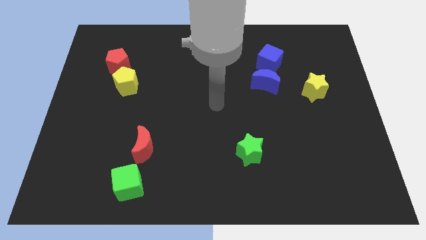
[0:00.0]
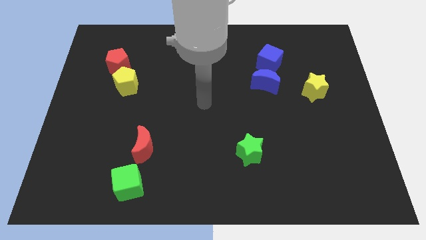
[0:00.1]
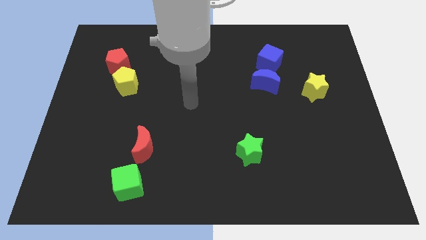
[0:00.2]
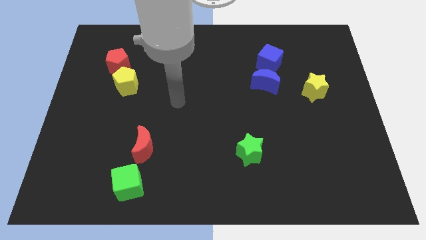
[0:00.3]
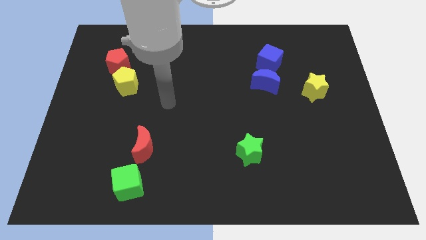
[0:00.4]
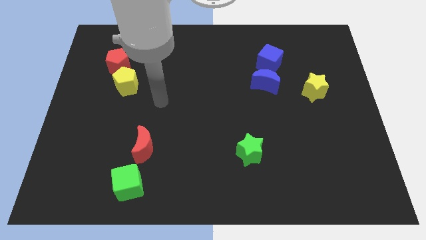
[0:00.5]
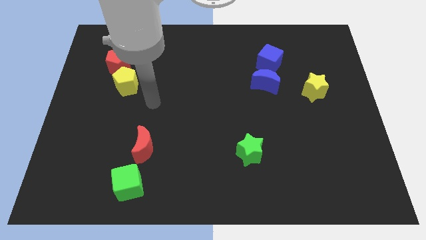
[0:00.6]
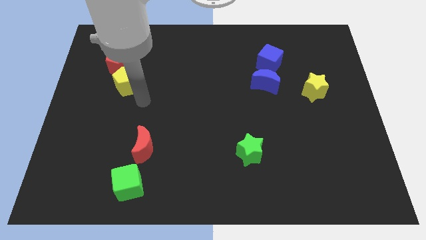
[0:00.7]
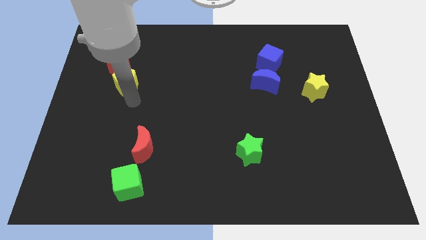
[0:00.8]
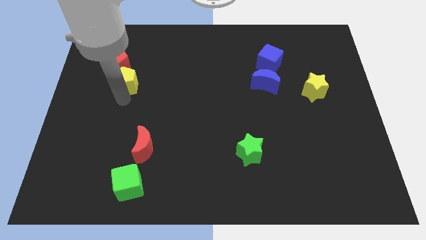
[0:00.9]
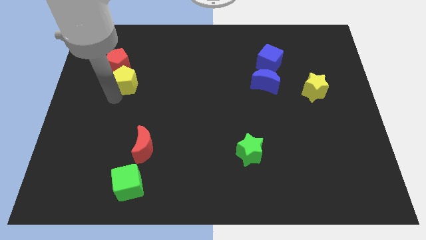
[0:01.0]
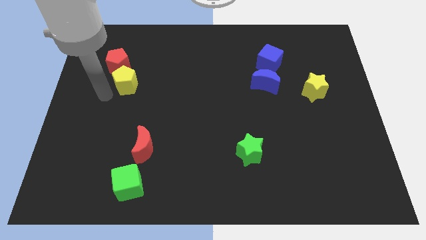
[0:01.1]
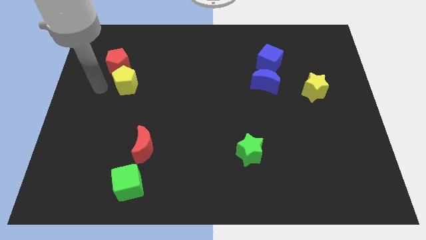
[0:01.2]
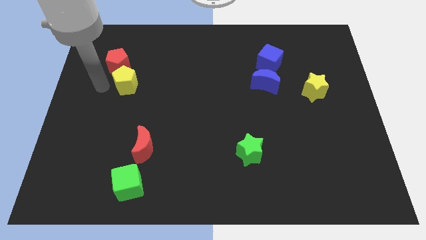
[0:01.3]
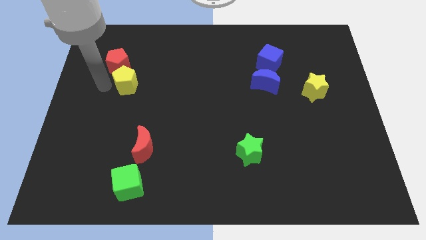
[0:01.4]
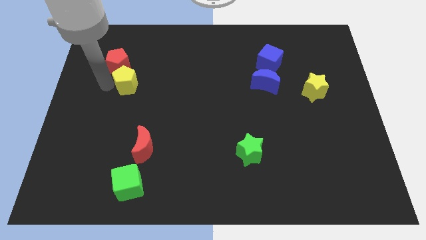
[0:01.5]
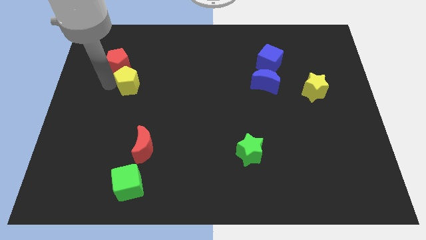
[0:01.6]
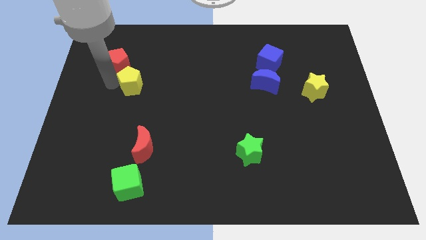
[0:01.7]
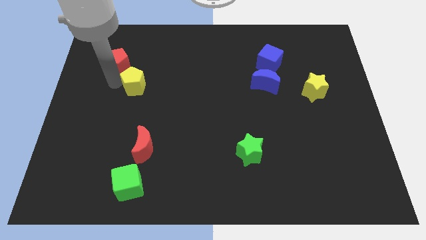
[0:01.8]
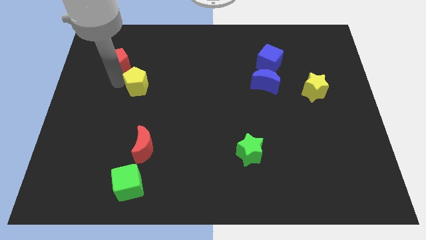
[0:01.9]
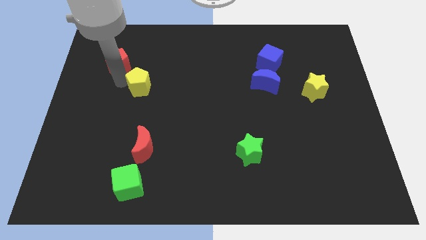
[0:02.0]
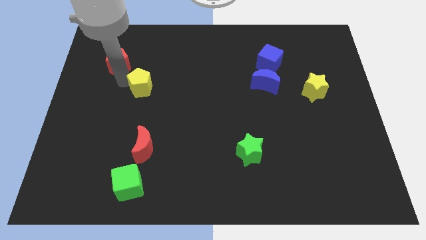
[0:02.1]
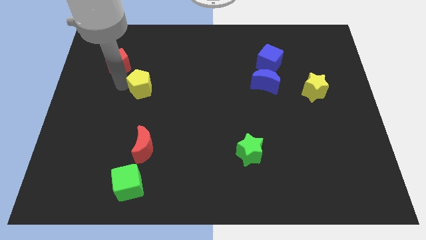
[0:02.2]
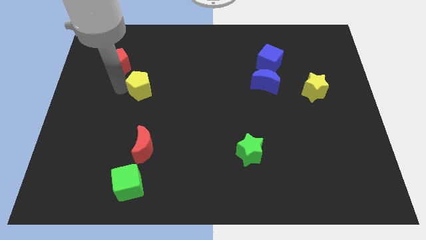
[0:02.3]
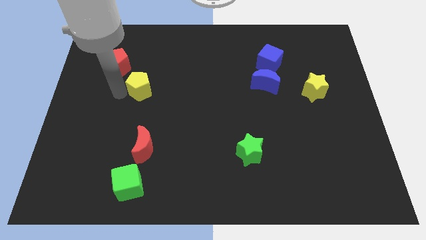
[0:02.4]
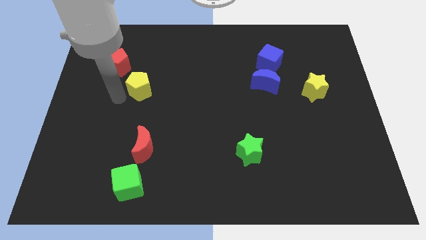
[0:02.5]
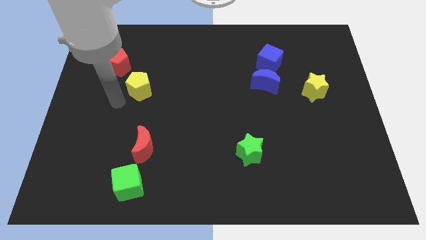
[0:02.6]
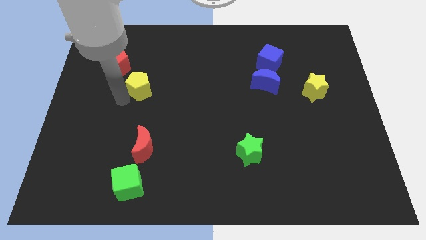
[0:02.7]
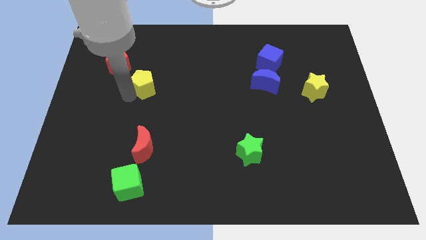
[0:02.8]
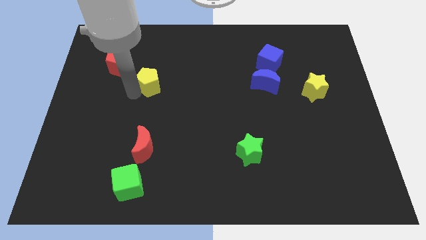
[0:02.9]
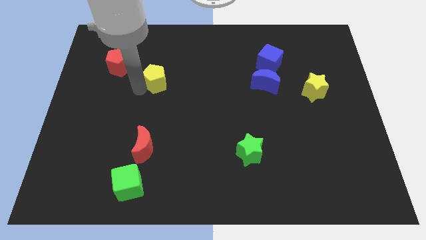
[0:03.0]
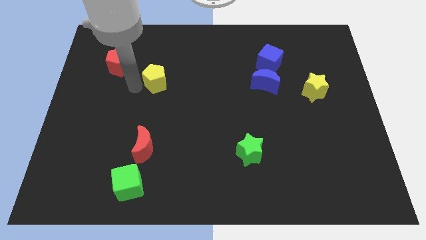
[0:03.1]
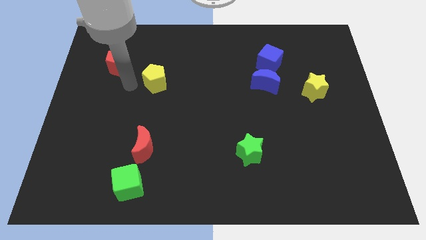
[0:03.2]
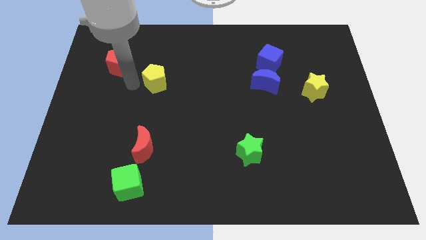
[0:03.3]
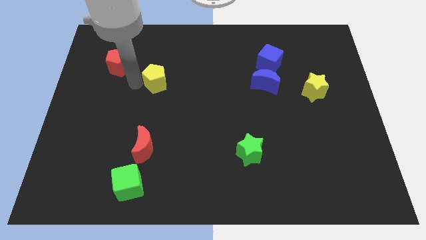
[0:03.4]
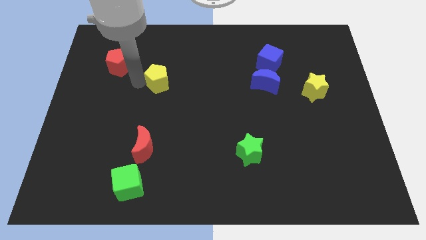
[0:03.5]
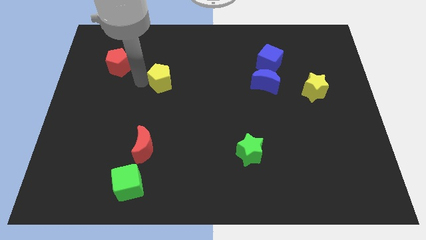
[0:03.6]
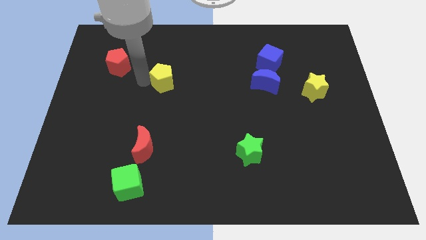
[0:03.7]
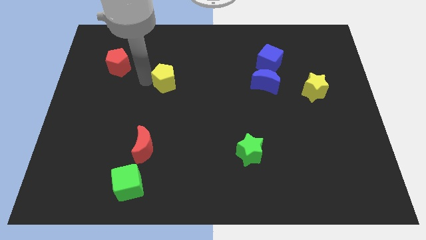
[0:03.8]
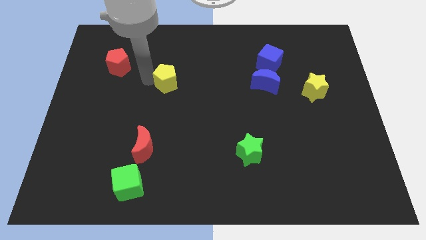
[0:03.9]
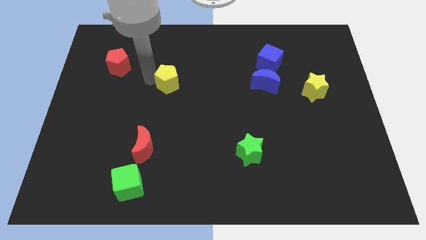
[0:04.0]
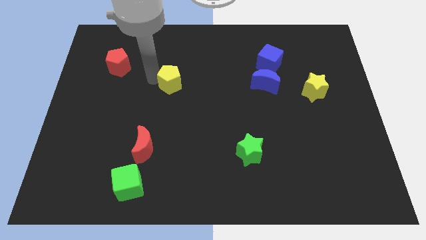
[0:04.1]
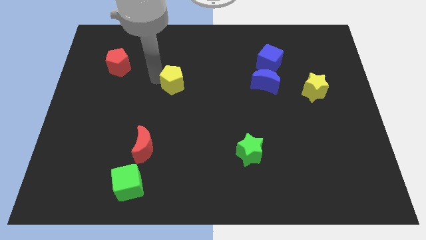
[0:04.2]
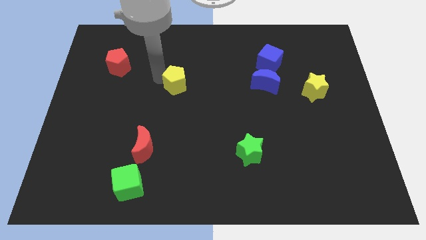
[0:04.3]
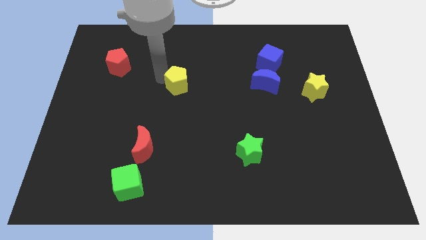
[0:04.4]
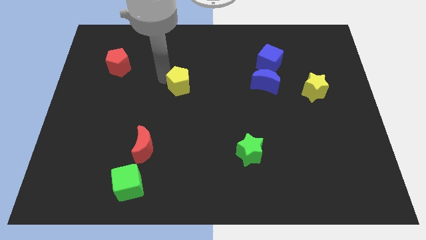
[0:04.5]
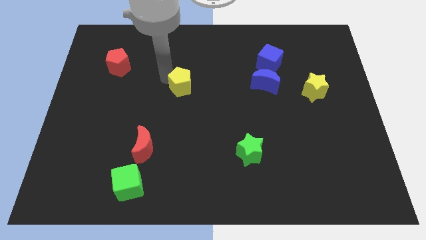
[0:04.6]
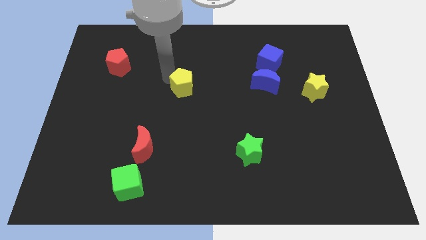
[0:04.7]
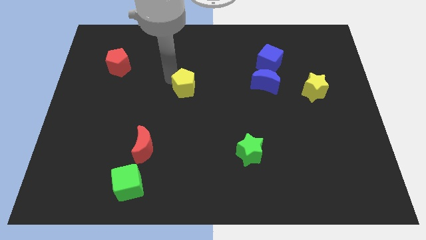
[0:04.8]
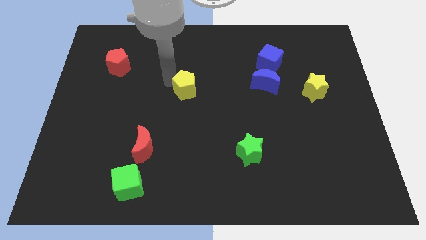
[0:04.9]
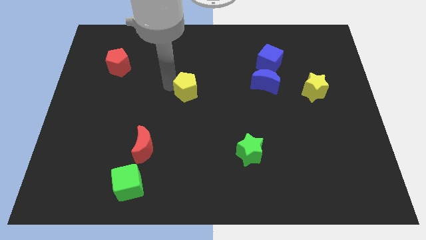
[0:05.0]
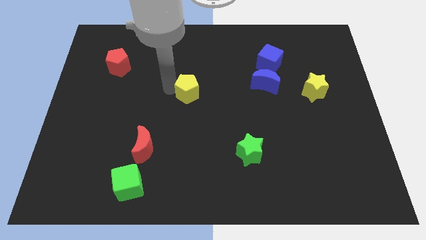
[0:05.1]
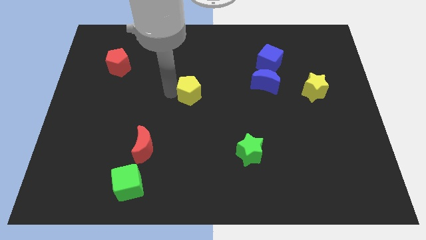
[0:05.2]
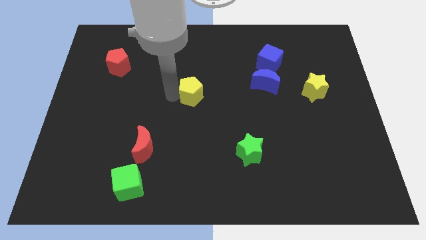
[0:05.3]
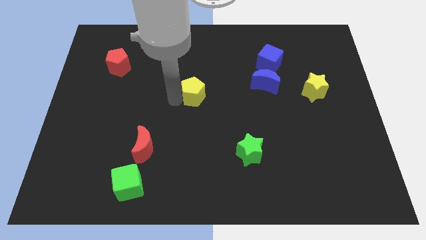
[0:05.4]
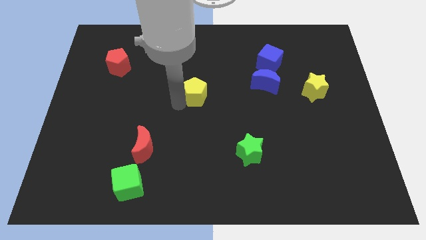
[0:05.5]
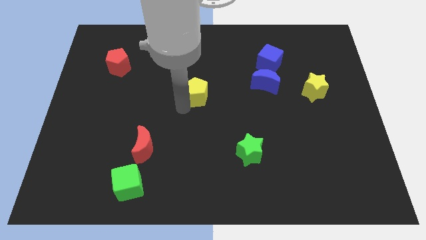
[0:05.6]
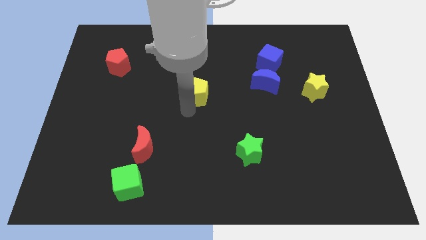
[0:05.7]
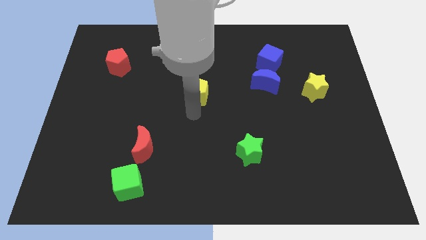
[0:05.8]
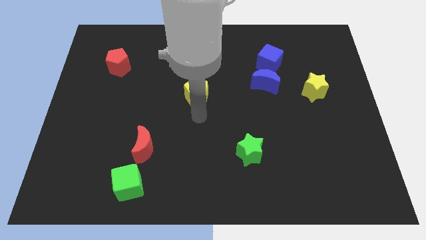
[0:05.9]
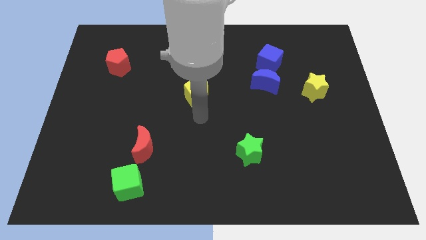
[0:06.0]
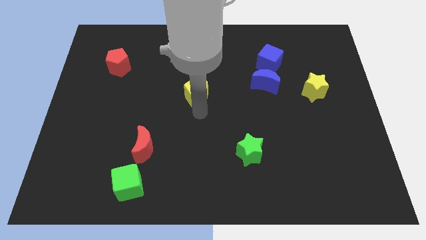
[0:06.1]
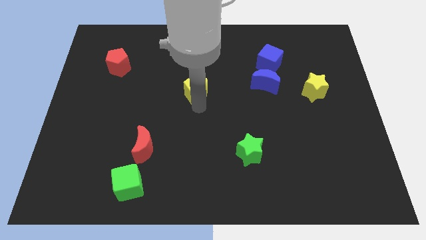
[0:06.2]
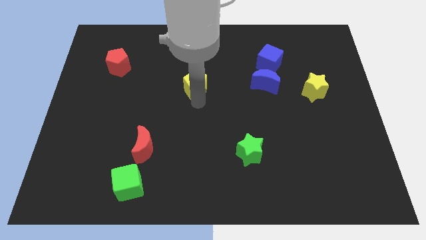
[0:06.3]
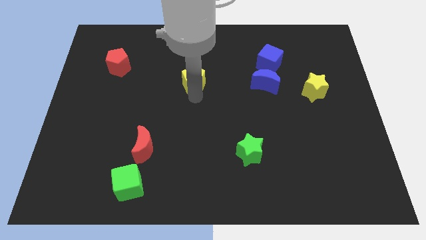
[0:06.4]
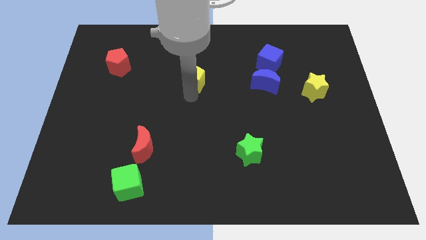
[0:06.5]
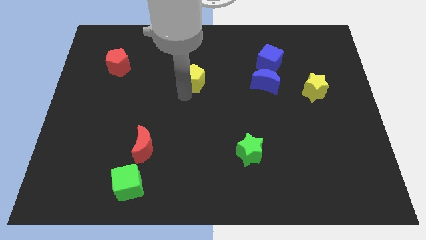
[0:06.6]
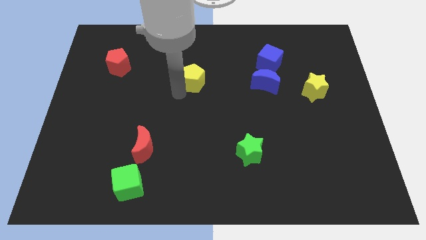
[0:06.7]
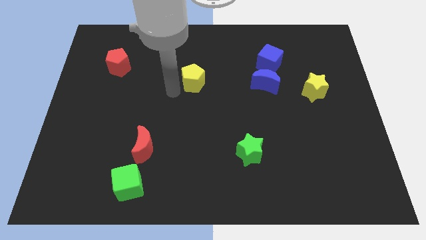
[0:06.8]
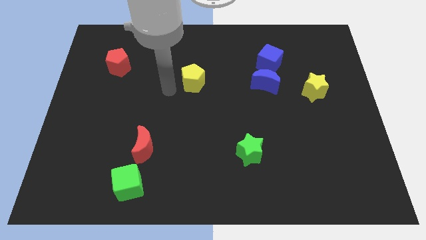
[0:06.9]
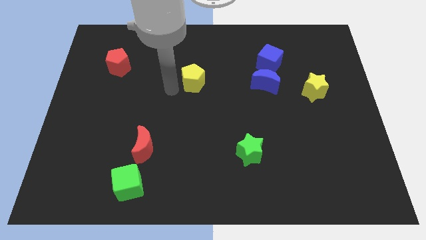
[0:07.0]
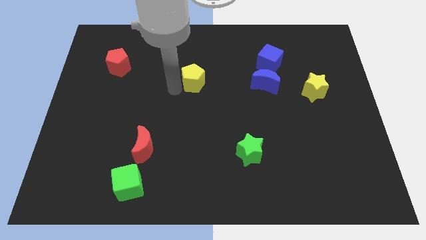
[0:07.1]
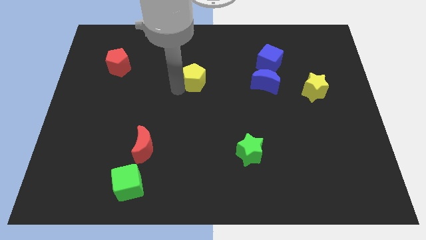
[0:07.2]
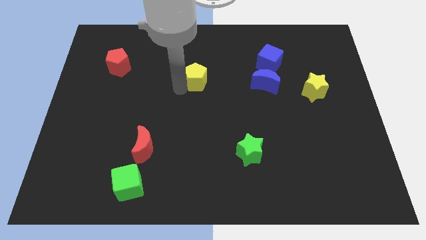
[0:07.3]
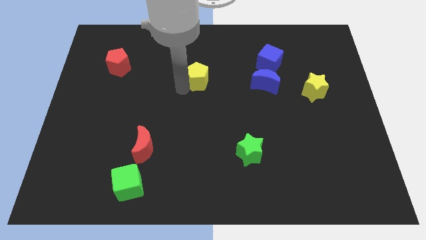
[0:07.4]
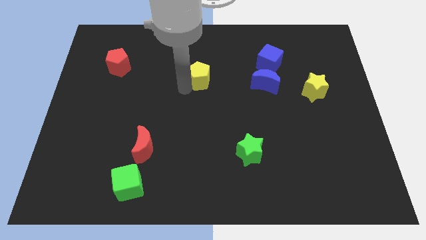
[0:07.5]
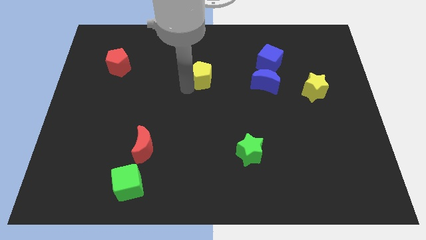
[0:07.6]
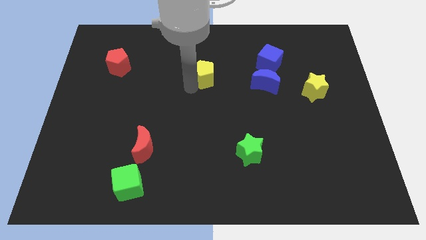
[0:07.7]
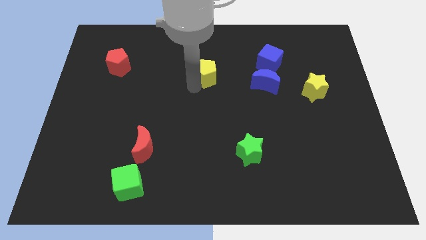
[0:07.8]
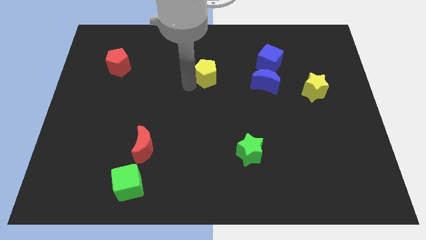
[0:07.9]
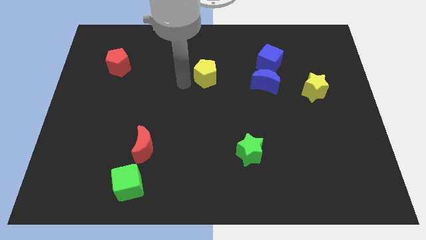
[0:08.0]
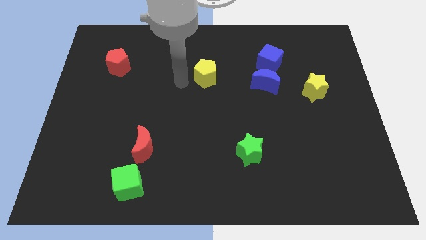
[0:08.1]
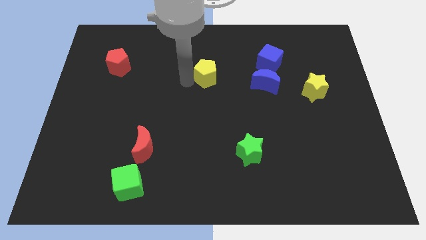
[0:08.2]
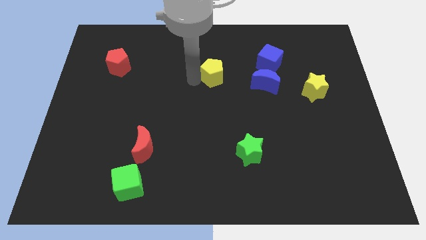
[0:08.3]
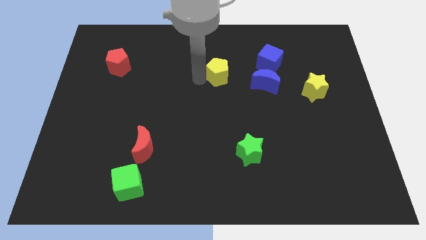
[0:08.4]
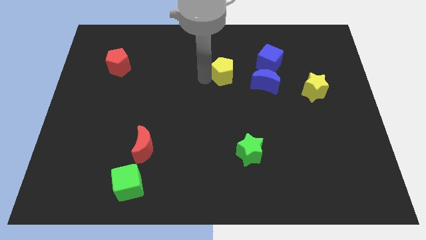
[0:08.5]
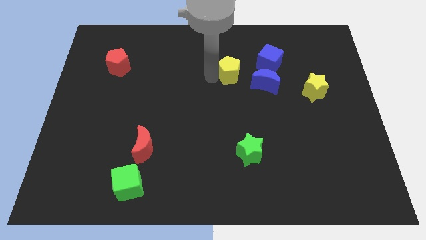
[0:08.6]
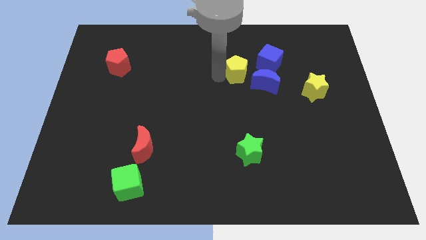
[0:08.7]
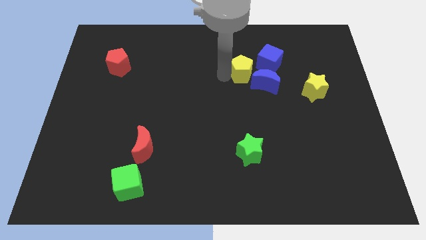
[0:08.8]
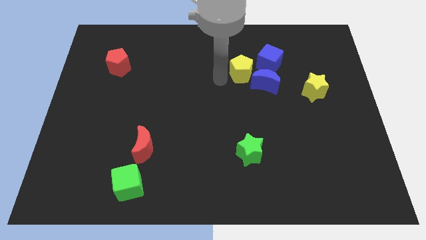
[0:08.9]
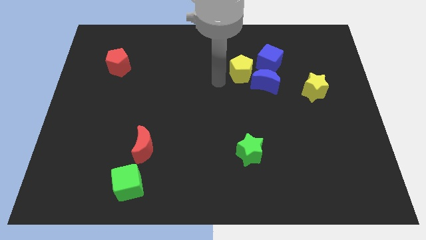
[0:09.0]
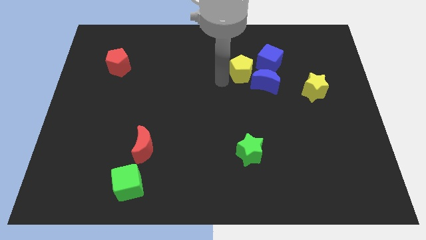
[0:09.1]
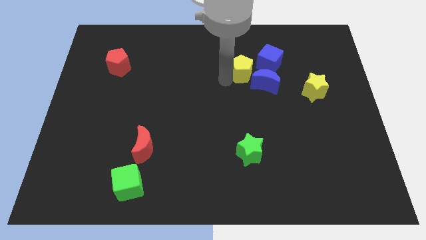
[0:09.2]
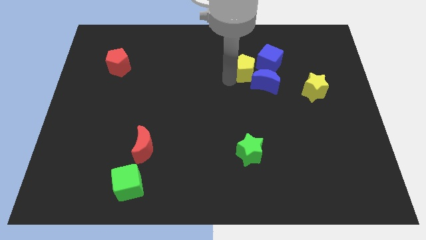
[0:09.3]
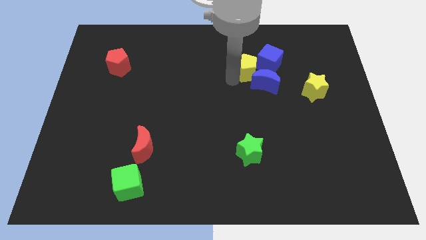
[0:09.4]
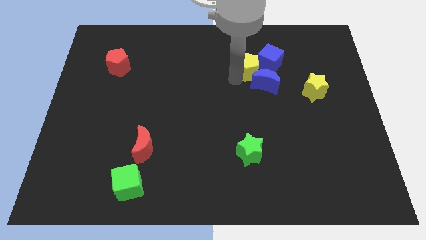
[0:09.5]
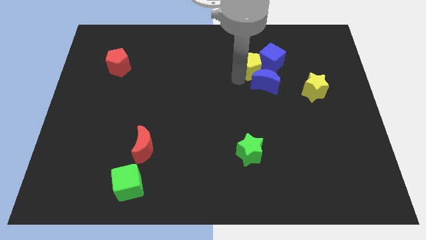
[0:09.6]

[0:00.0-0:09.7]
push the yellow pentagon towards the blue cube
